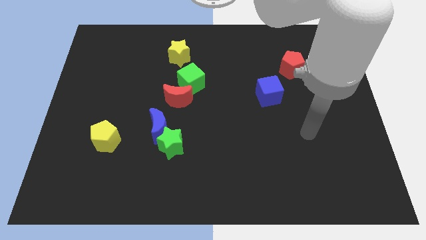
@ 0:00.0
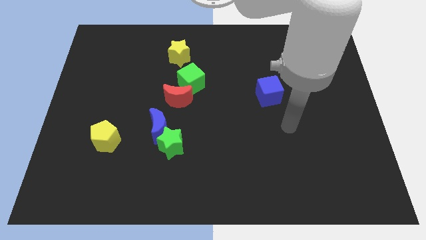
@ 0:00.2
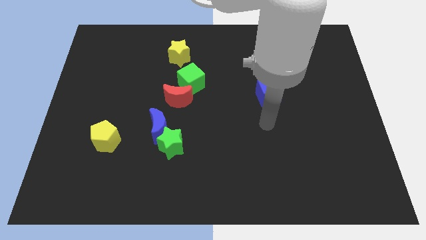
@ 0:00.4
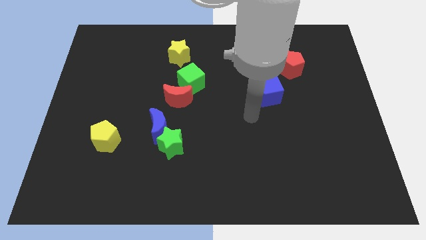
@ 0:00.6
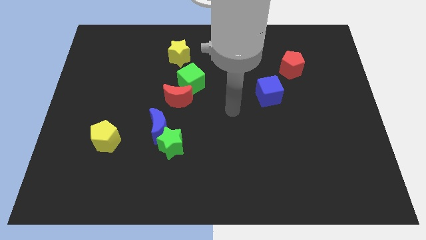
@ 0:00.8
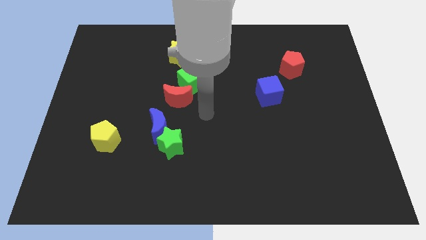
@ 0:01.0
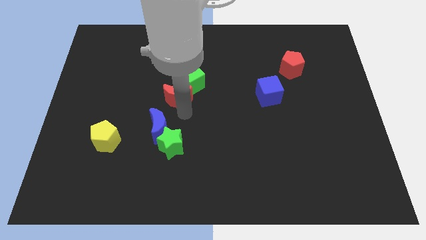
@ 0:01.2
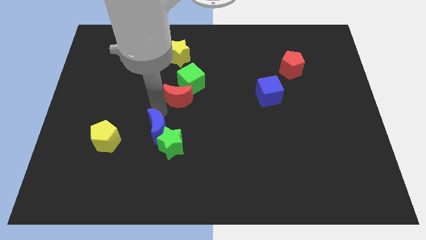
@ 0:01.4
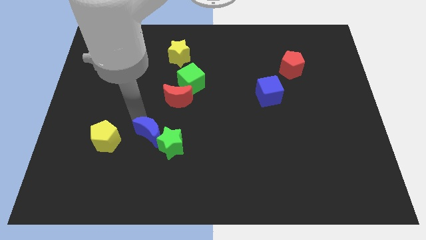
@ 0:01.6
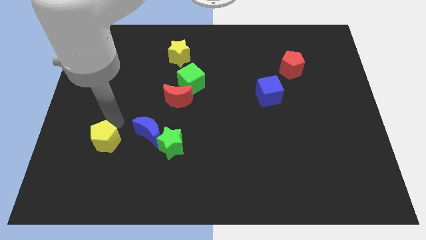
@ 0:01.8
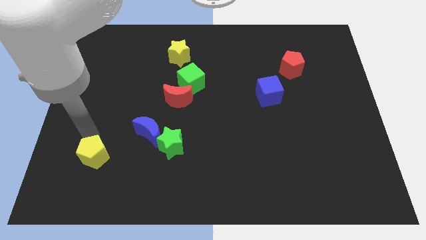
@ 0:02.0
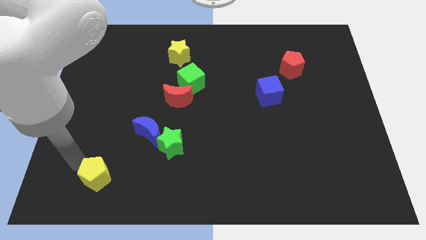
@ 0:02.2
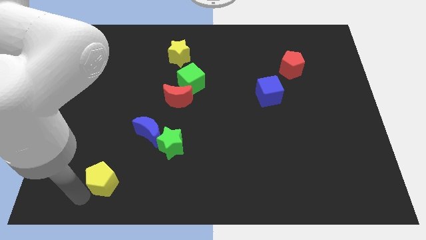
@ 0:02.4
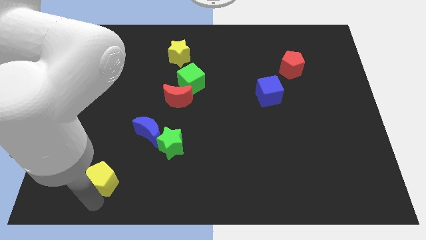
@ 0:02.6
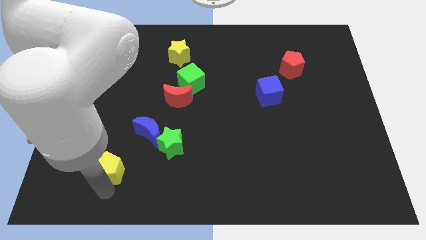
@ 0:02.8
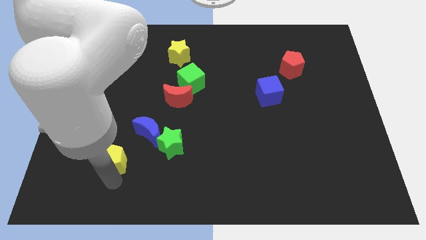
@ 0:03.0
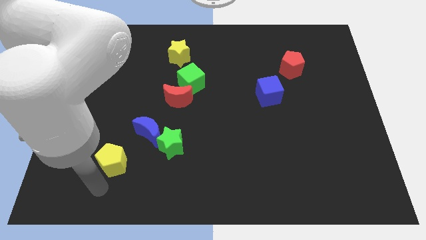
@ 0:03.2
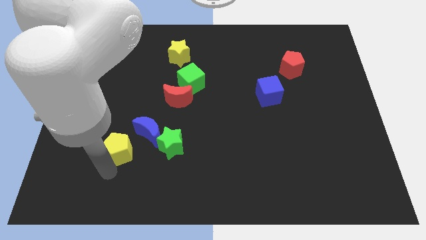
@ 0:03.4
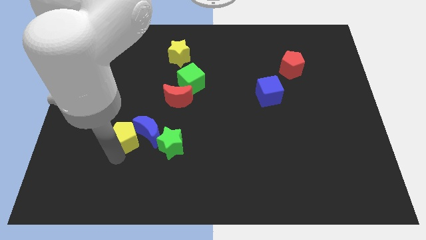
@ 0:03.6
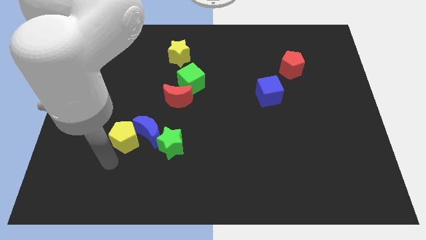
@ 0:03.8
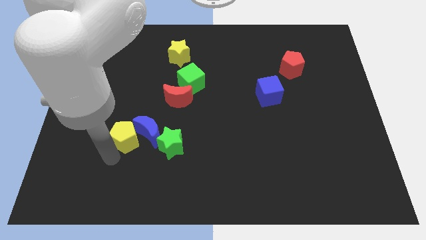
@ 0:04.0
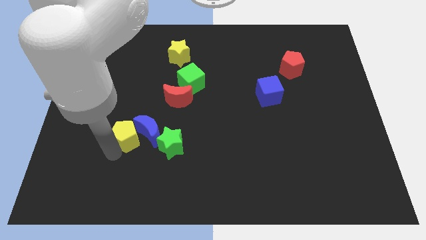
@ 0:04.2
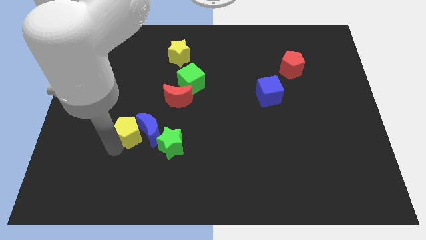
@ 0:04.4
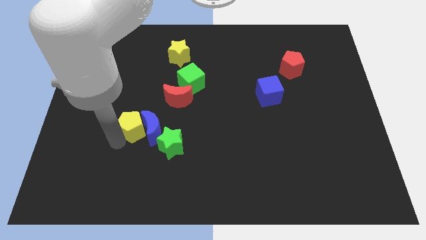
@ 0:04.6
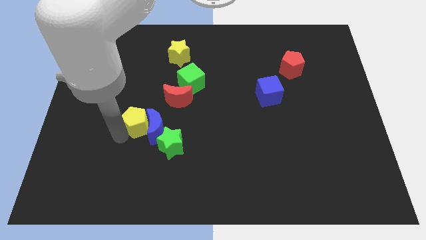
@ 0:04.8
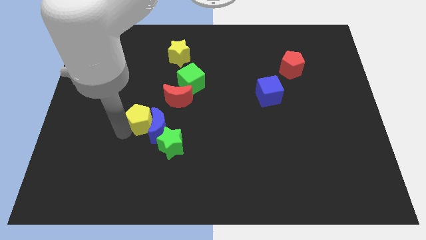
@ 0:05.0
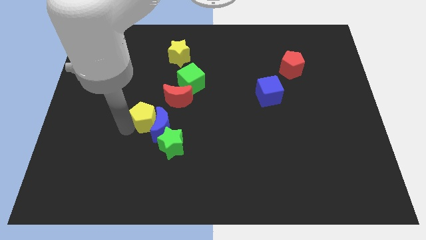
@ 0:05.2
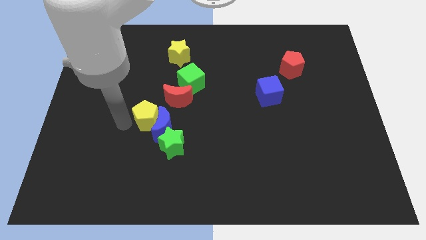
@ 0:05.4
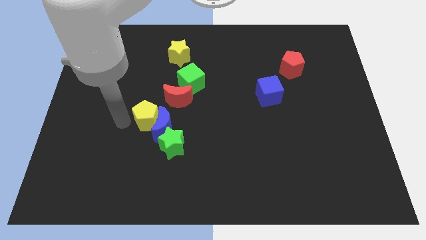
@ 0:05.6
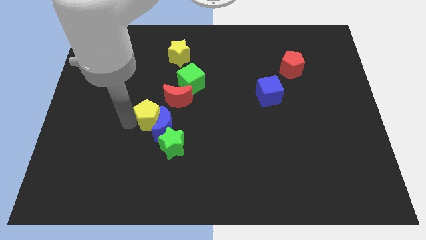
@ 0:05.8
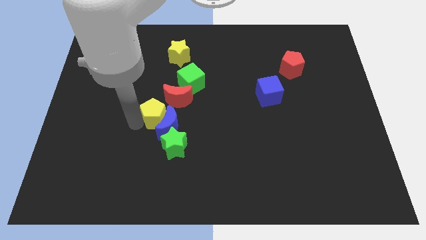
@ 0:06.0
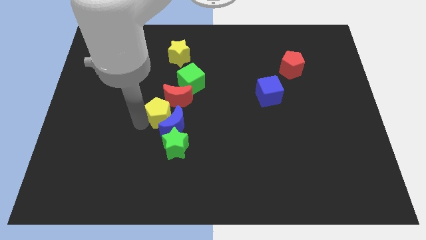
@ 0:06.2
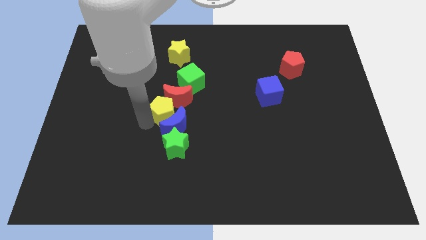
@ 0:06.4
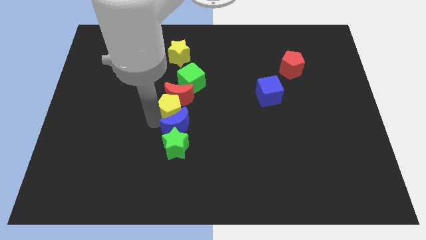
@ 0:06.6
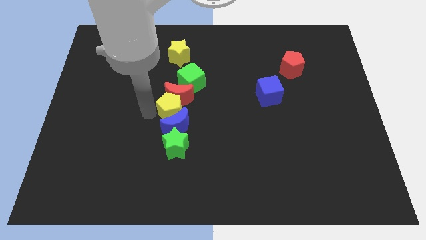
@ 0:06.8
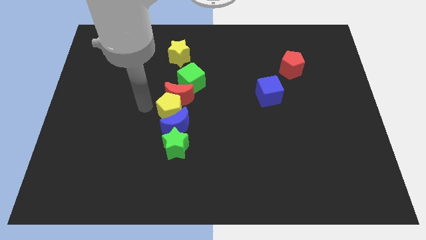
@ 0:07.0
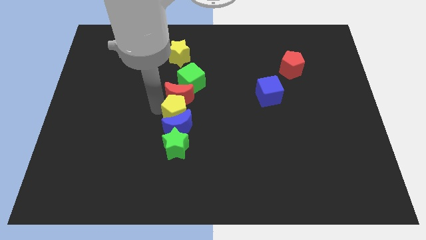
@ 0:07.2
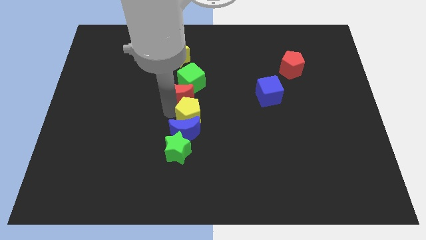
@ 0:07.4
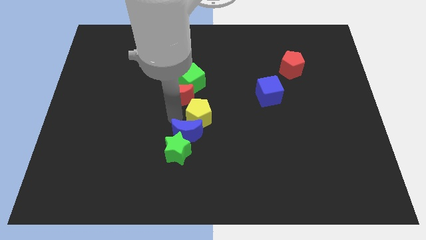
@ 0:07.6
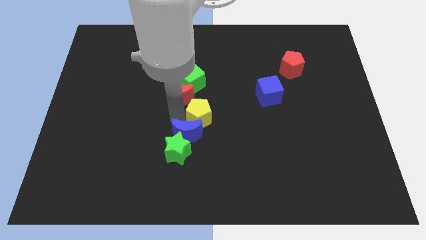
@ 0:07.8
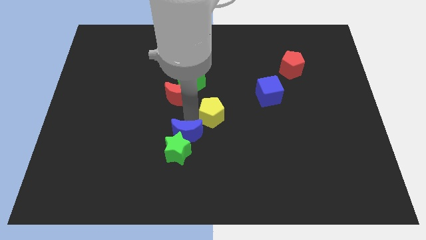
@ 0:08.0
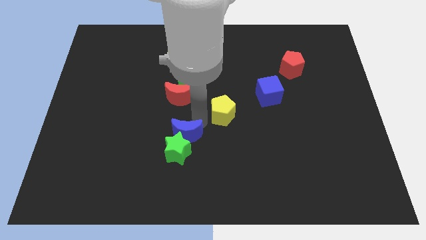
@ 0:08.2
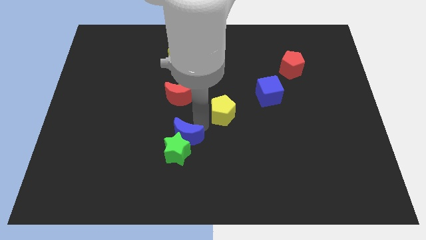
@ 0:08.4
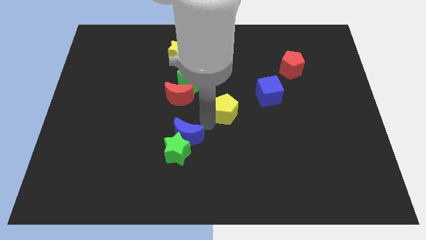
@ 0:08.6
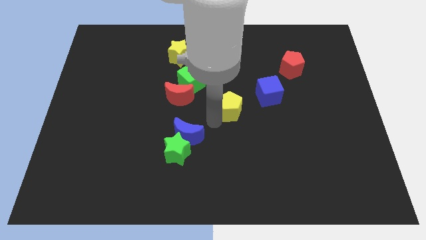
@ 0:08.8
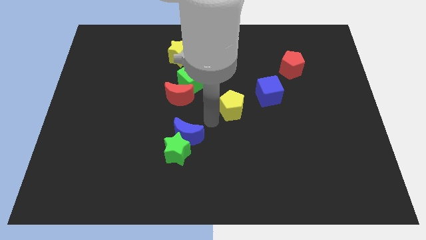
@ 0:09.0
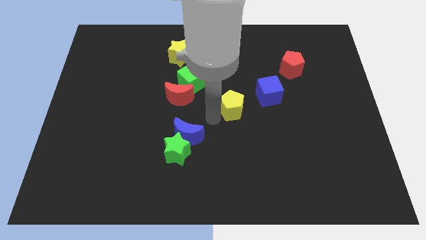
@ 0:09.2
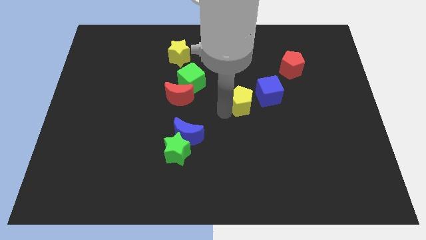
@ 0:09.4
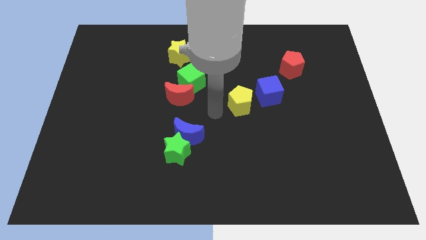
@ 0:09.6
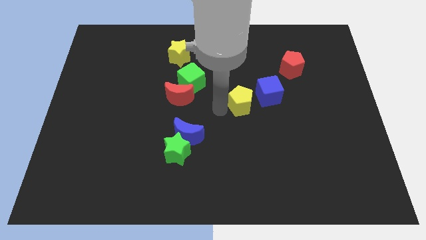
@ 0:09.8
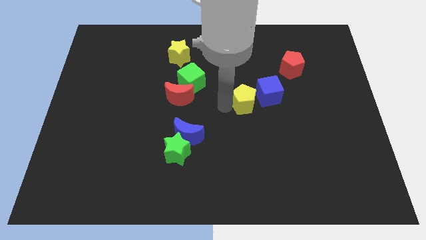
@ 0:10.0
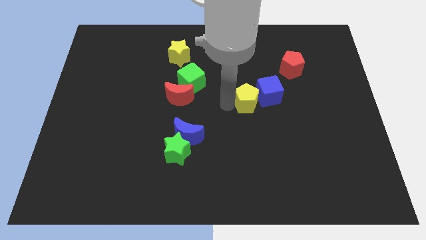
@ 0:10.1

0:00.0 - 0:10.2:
move the yellow pentagon towards the blue cube
